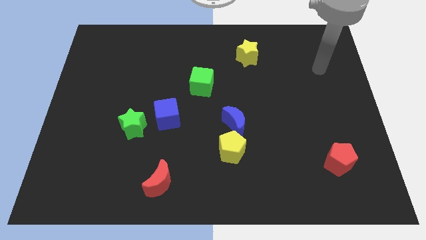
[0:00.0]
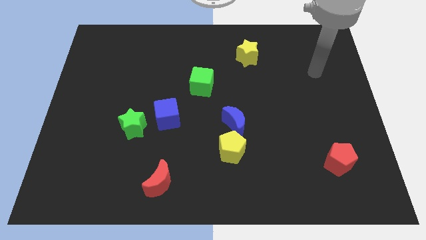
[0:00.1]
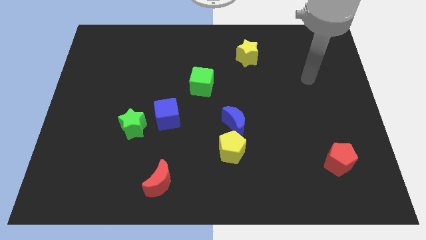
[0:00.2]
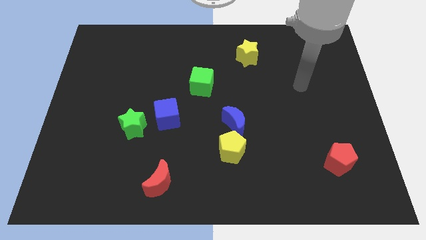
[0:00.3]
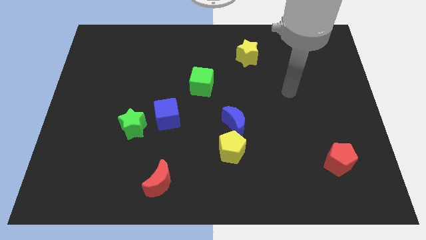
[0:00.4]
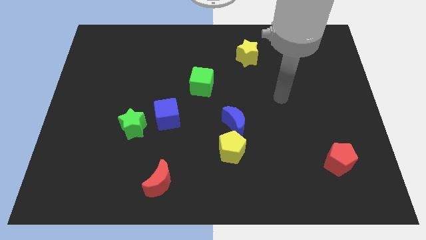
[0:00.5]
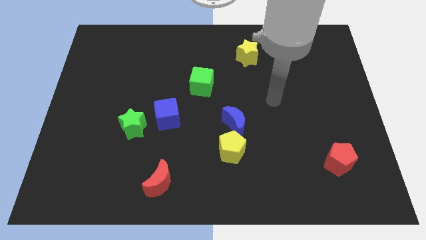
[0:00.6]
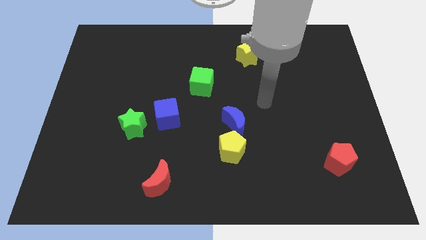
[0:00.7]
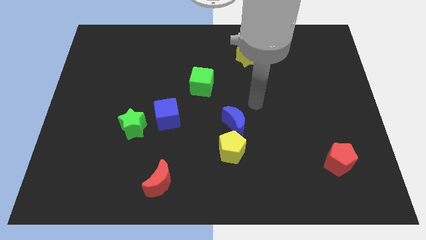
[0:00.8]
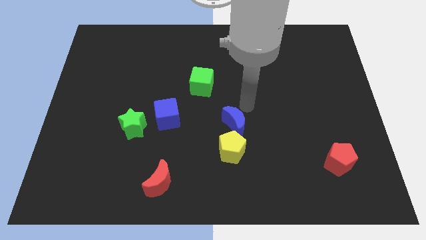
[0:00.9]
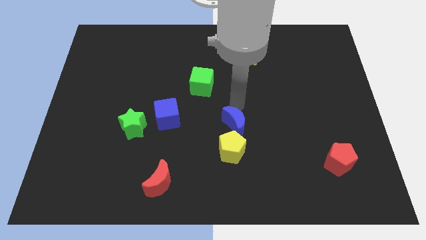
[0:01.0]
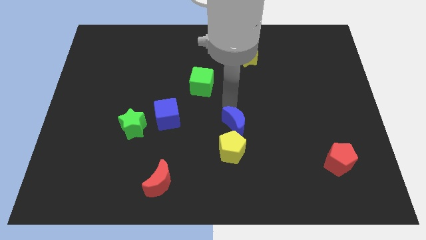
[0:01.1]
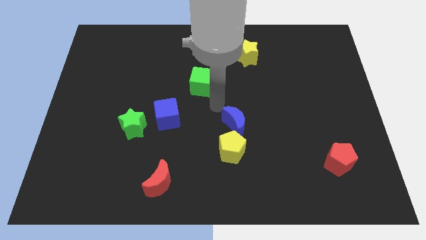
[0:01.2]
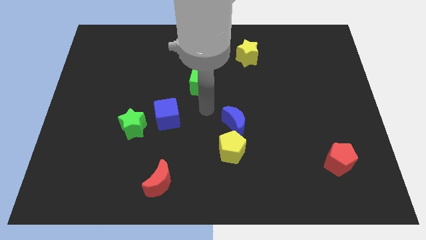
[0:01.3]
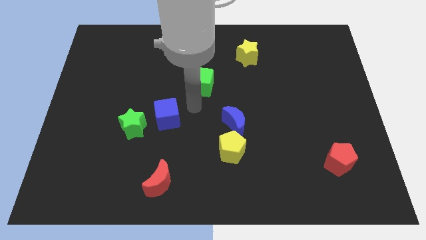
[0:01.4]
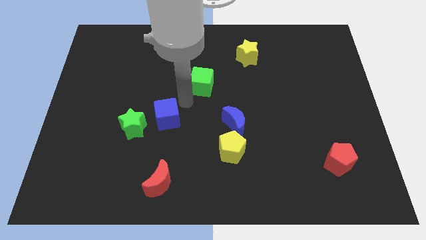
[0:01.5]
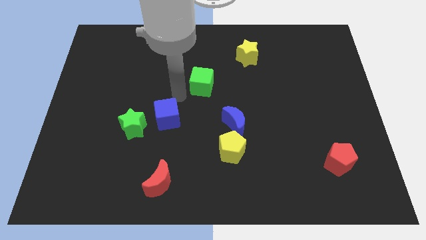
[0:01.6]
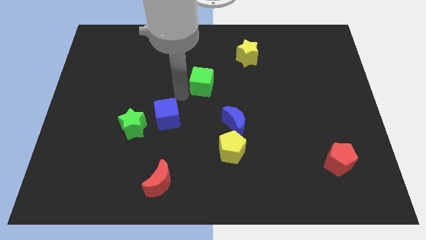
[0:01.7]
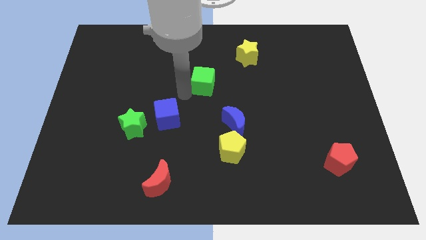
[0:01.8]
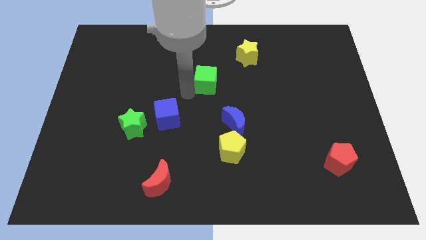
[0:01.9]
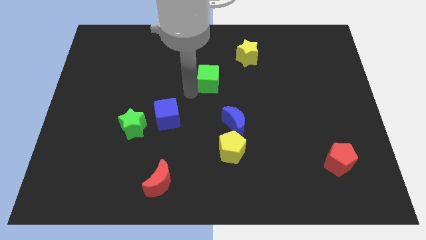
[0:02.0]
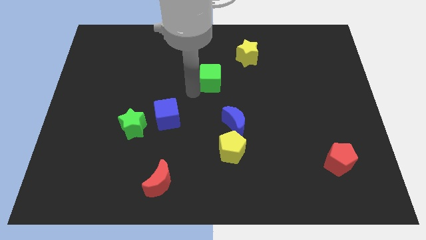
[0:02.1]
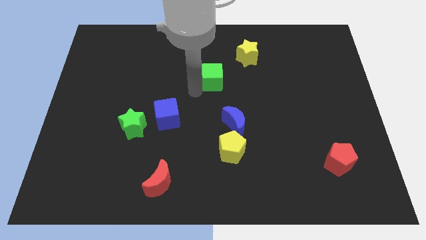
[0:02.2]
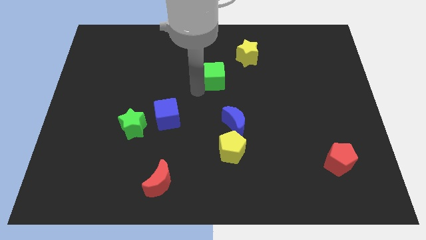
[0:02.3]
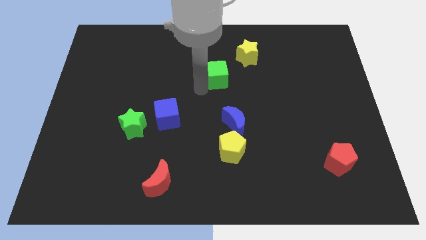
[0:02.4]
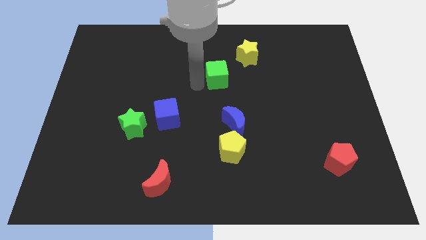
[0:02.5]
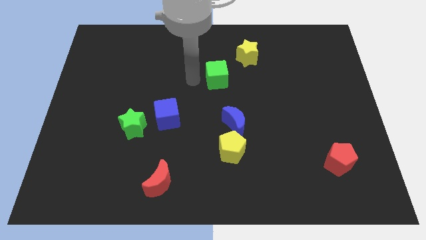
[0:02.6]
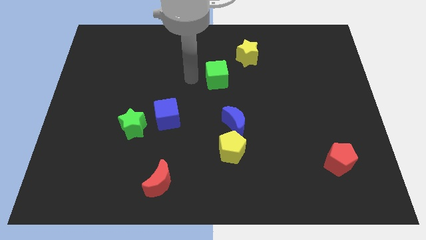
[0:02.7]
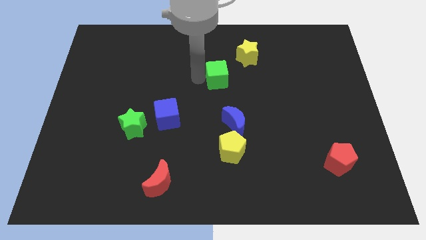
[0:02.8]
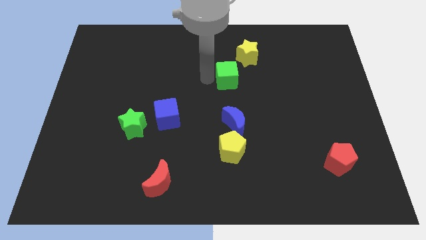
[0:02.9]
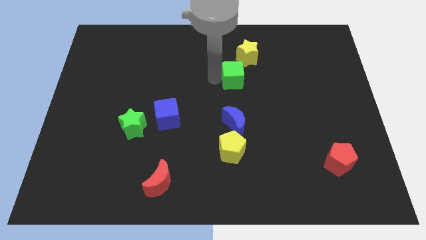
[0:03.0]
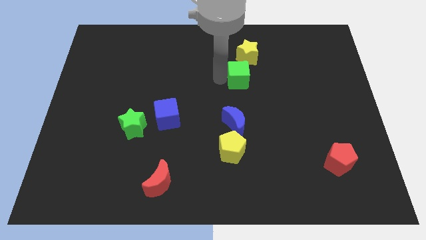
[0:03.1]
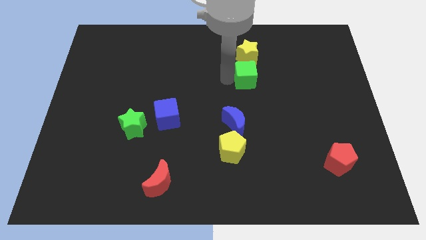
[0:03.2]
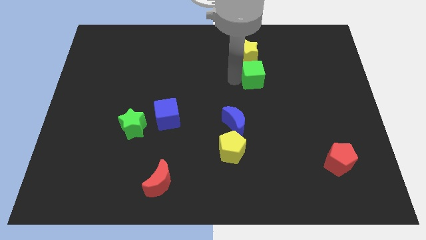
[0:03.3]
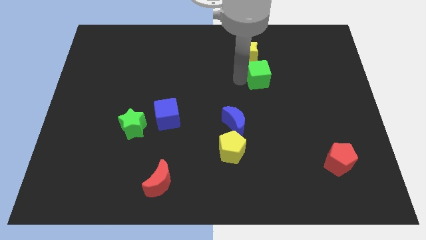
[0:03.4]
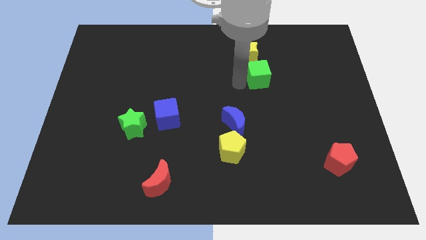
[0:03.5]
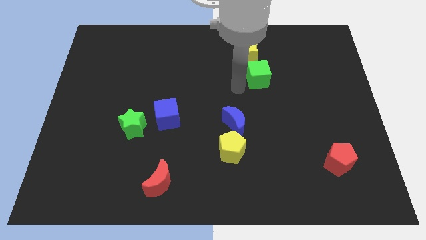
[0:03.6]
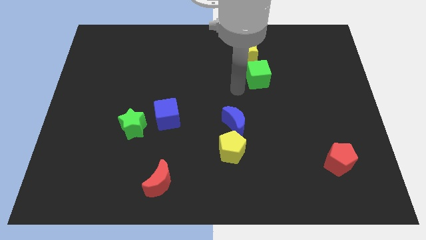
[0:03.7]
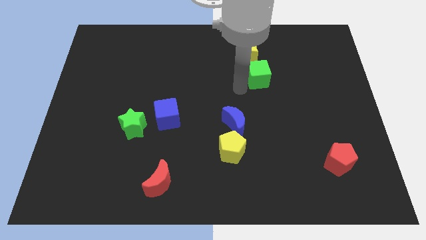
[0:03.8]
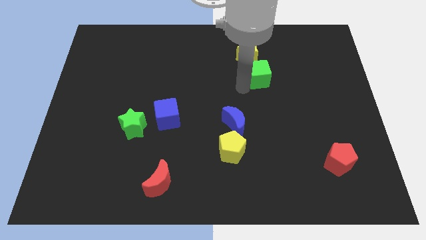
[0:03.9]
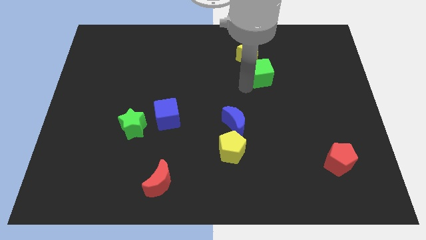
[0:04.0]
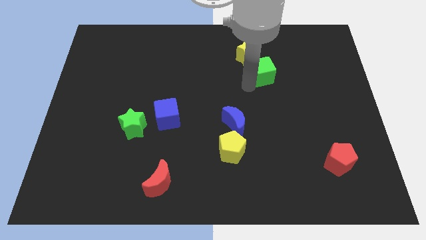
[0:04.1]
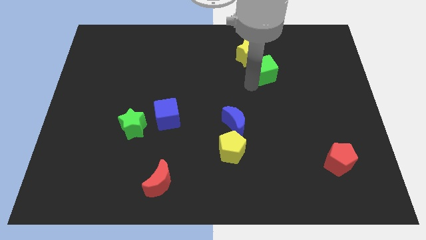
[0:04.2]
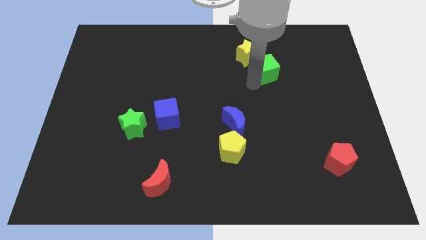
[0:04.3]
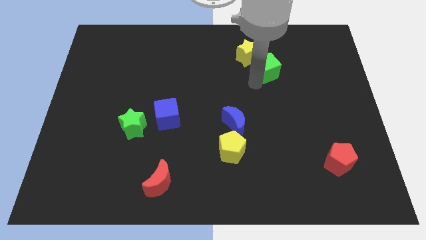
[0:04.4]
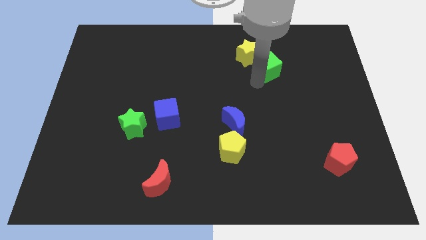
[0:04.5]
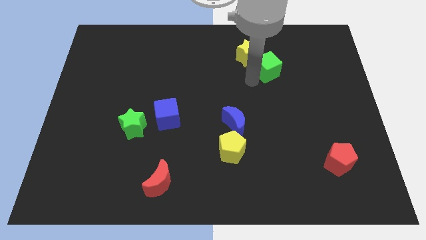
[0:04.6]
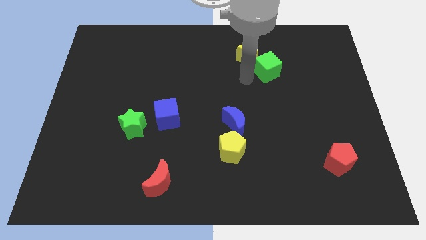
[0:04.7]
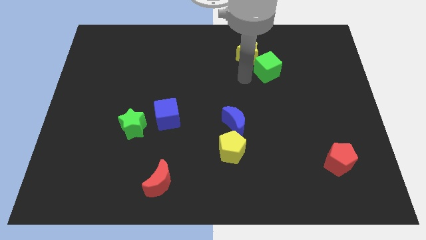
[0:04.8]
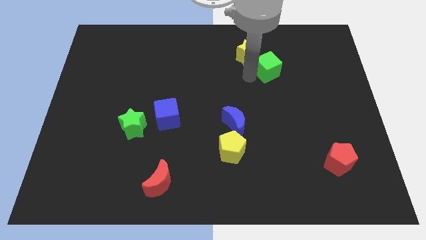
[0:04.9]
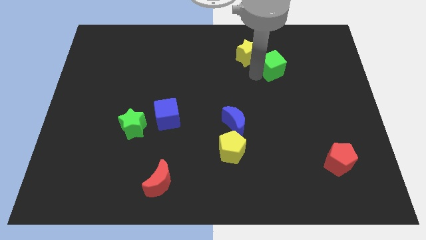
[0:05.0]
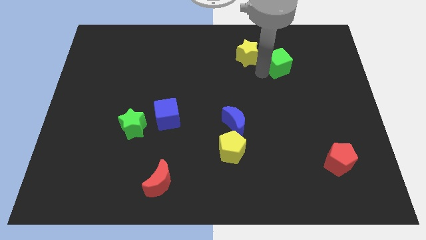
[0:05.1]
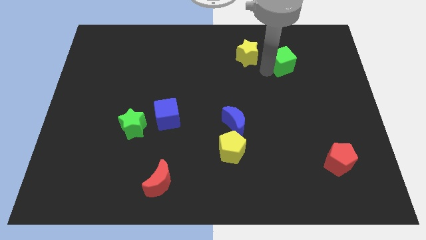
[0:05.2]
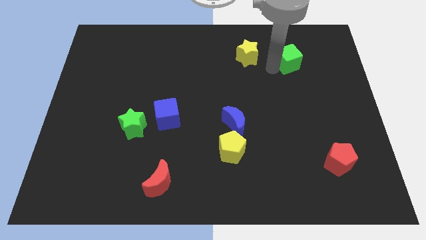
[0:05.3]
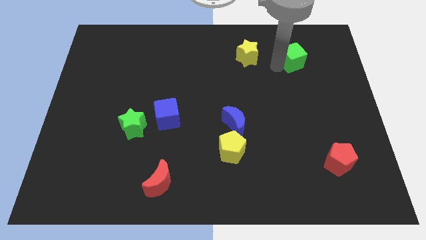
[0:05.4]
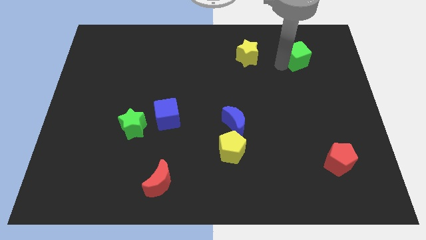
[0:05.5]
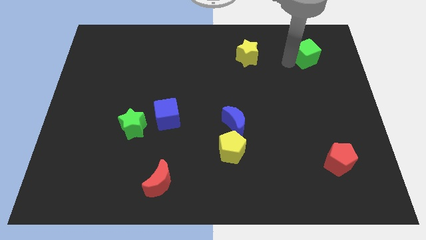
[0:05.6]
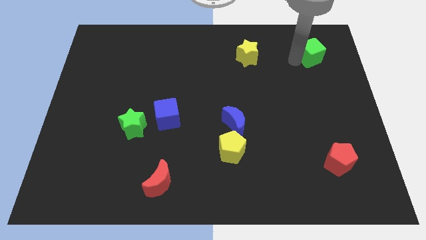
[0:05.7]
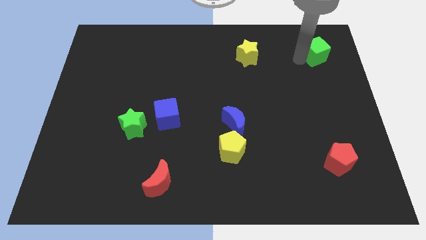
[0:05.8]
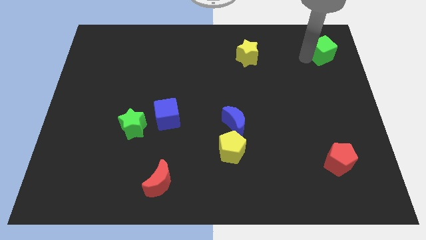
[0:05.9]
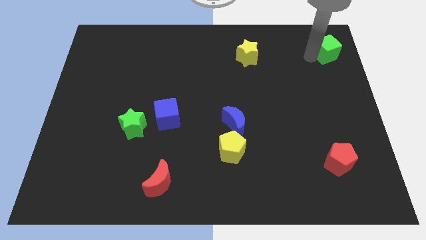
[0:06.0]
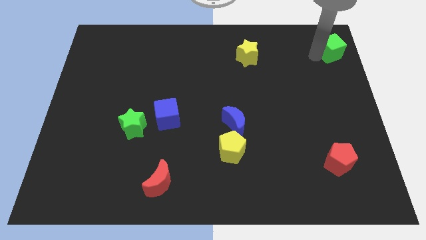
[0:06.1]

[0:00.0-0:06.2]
put the green cube to the top right

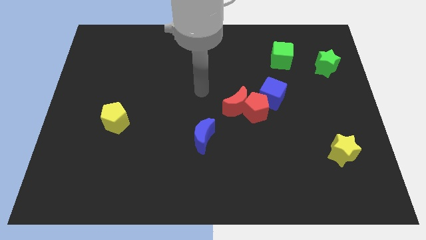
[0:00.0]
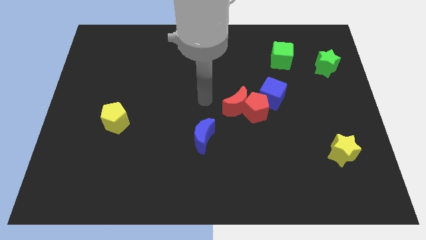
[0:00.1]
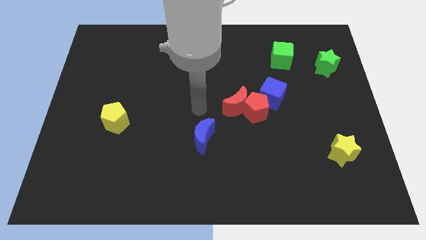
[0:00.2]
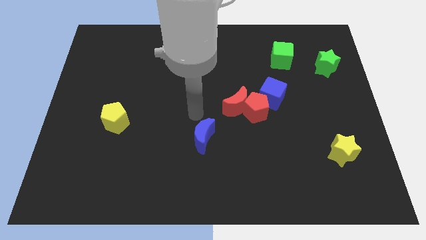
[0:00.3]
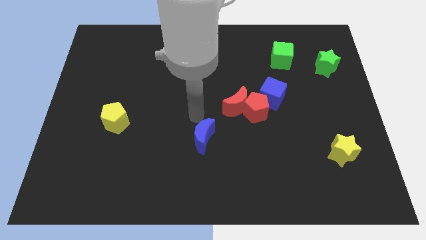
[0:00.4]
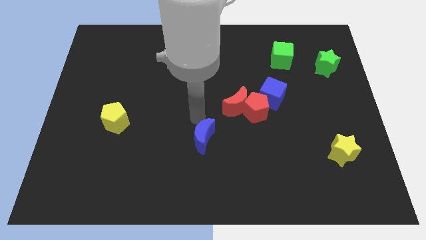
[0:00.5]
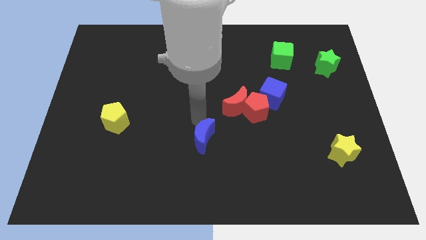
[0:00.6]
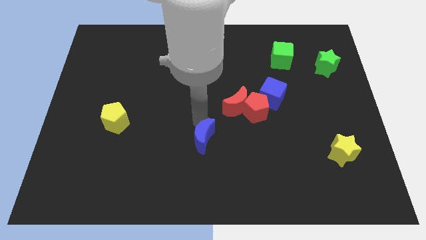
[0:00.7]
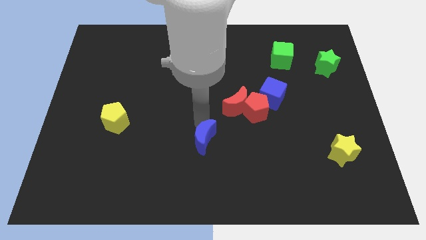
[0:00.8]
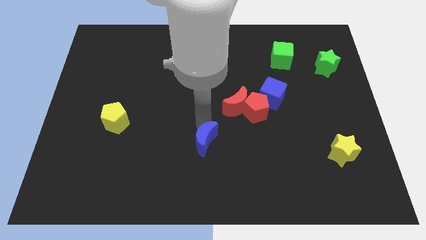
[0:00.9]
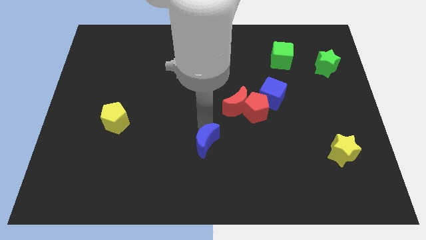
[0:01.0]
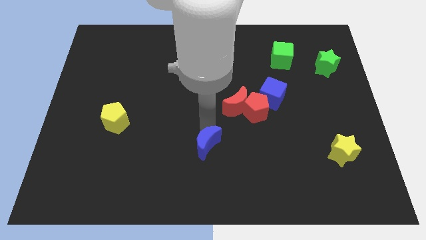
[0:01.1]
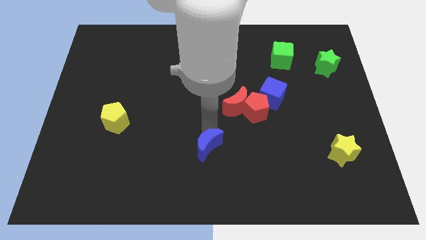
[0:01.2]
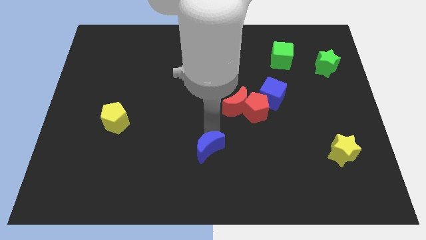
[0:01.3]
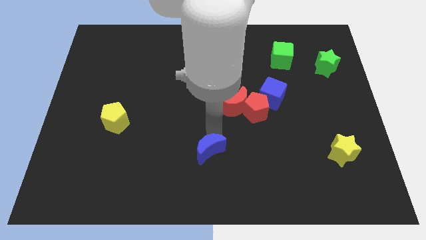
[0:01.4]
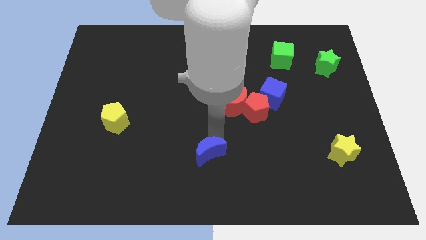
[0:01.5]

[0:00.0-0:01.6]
put the blue moon to the bottom side
